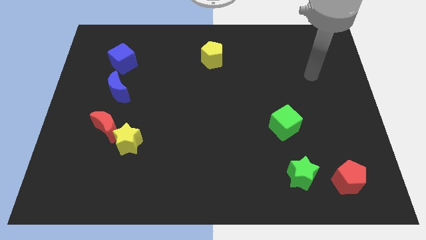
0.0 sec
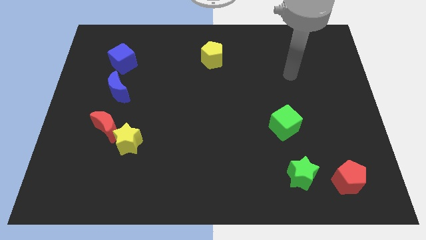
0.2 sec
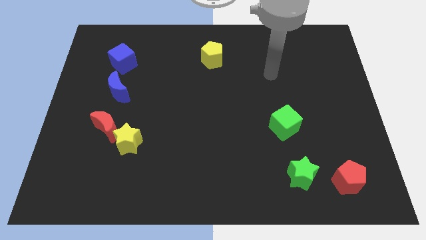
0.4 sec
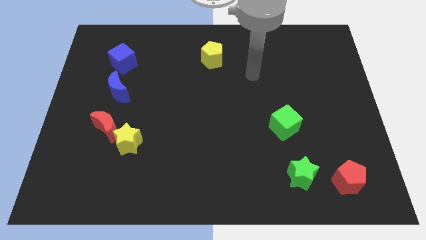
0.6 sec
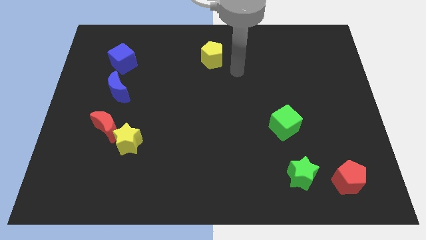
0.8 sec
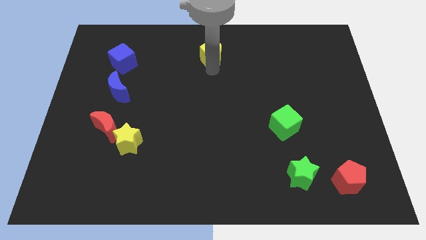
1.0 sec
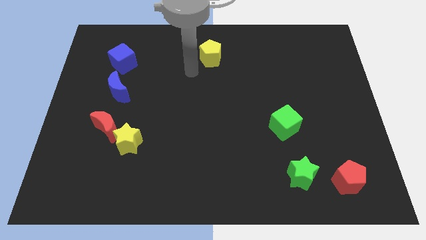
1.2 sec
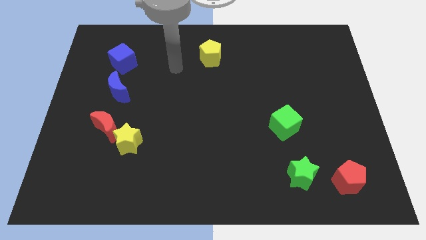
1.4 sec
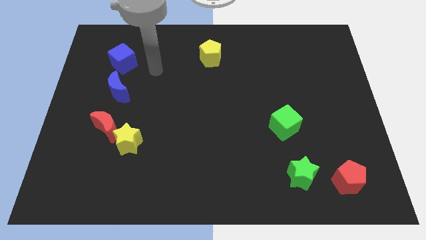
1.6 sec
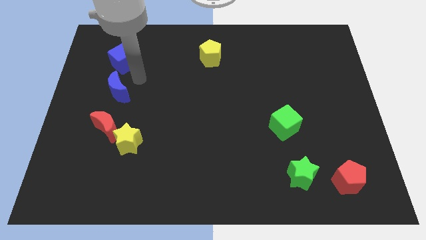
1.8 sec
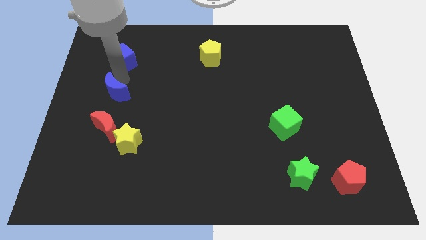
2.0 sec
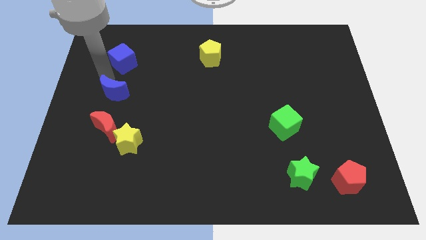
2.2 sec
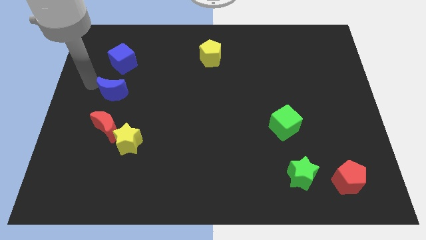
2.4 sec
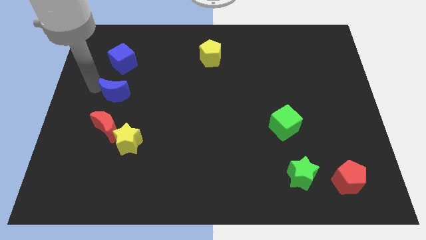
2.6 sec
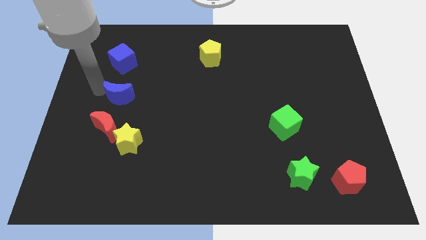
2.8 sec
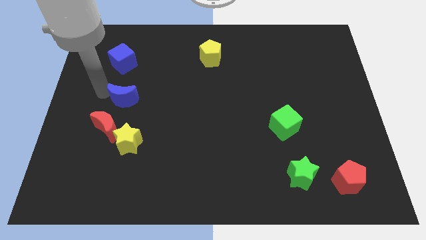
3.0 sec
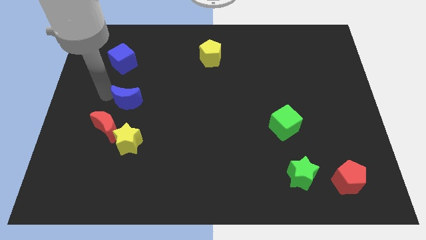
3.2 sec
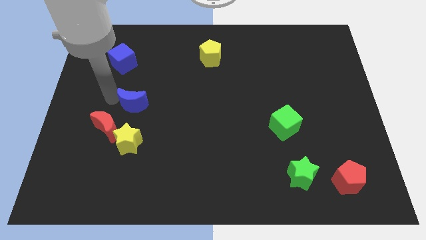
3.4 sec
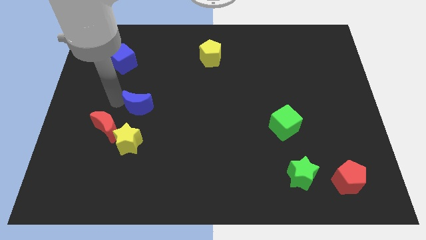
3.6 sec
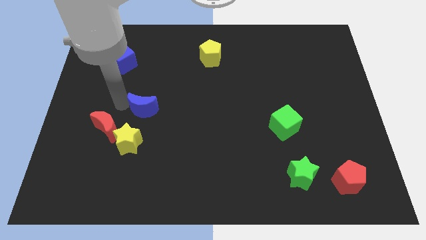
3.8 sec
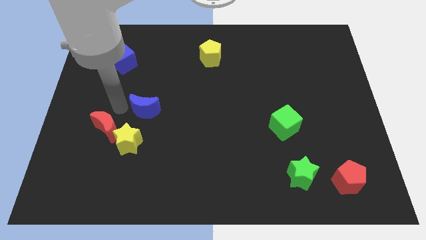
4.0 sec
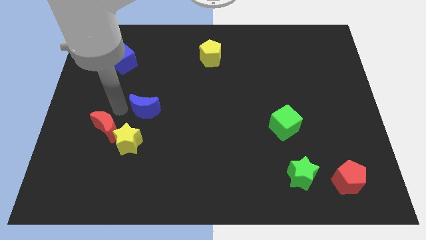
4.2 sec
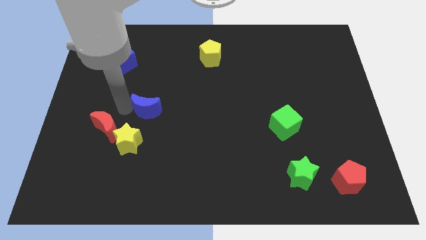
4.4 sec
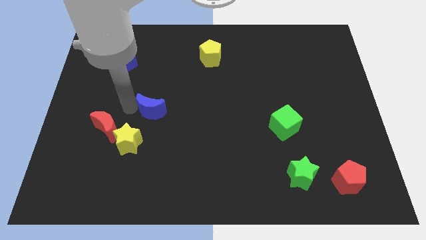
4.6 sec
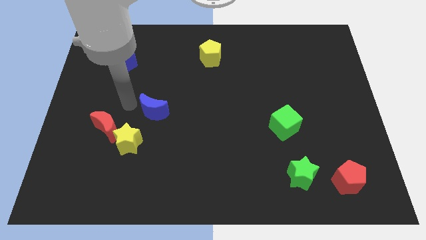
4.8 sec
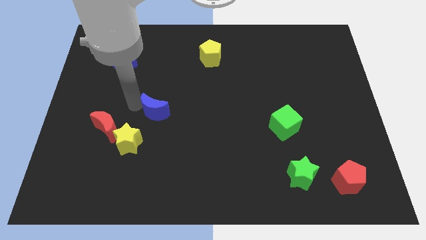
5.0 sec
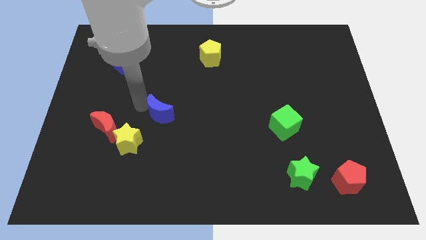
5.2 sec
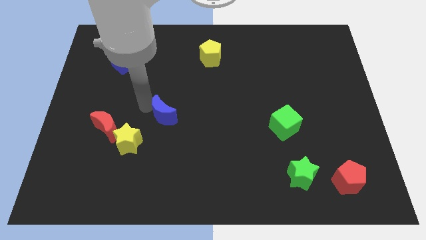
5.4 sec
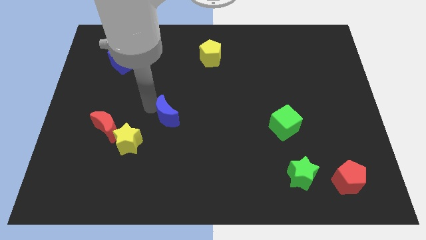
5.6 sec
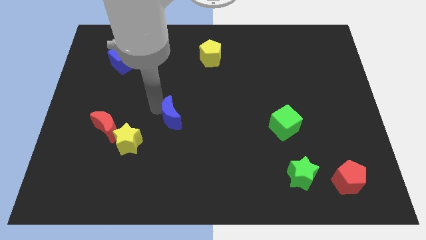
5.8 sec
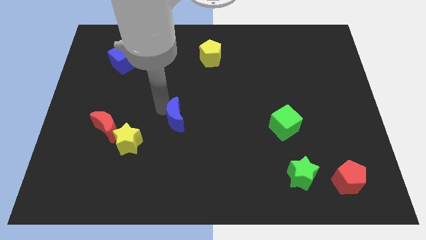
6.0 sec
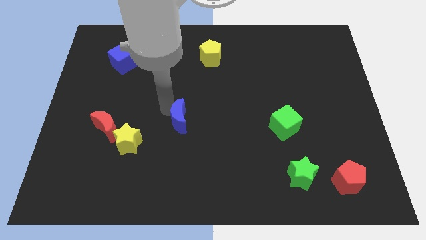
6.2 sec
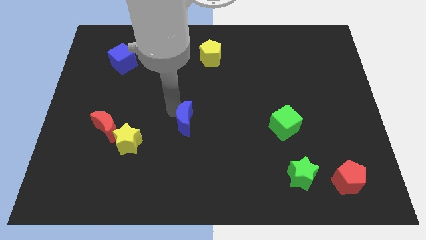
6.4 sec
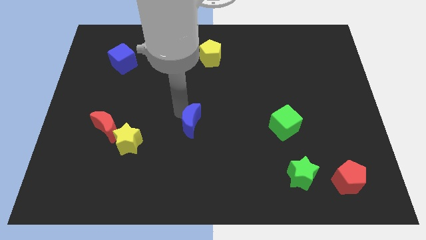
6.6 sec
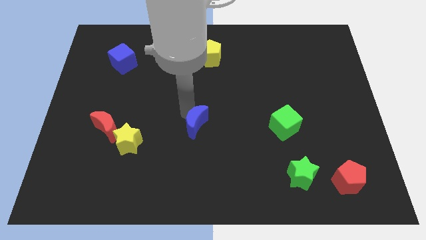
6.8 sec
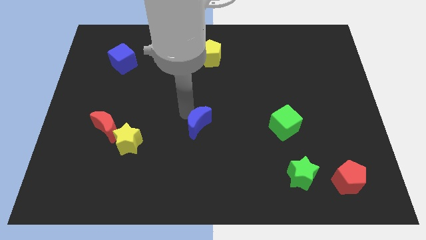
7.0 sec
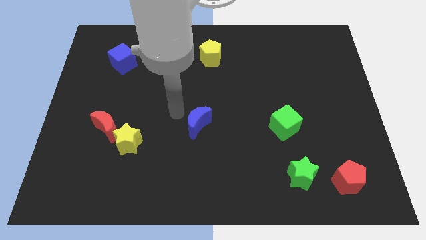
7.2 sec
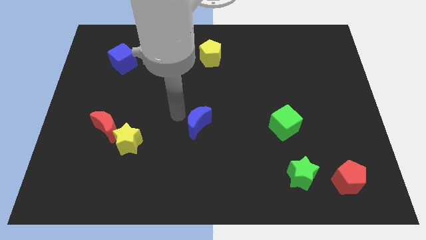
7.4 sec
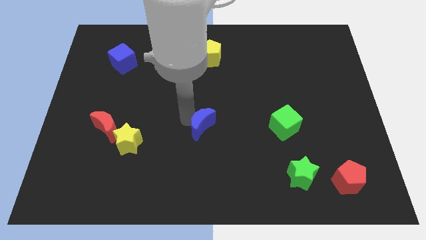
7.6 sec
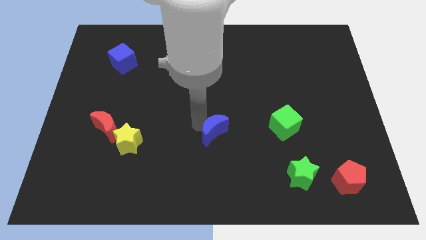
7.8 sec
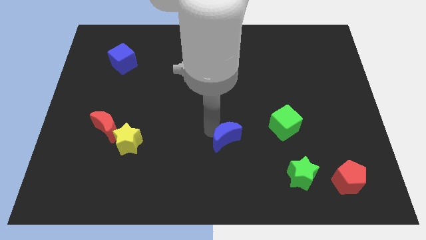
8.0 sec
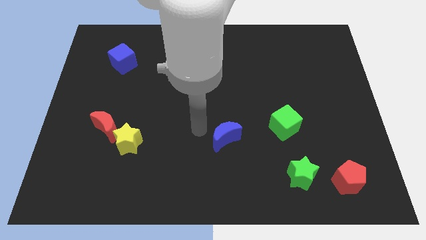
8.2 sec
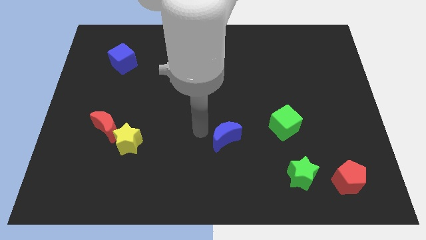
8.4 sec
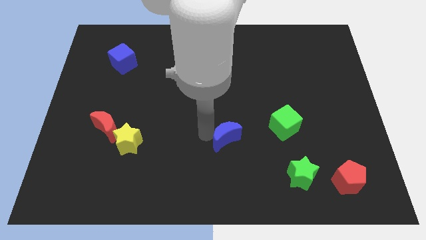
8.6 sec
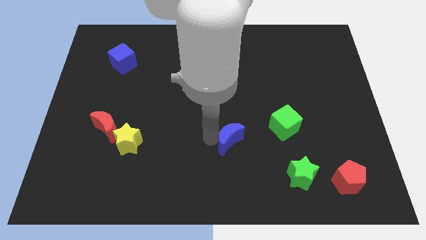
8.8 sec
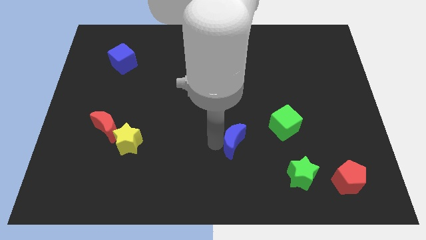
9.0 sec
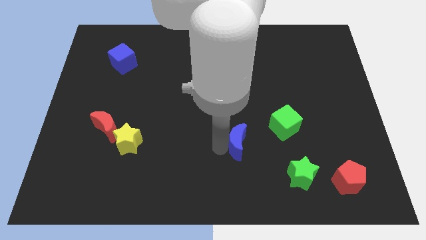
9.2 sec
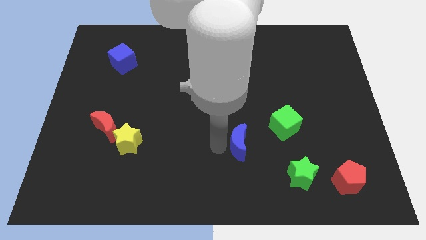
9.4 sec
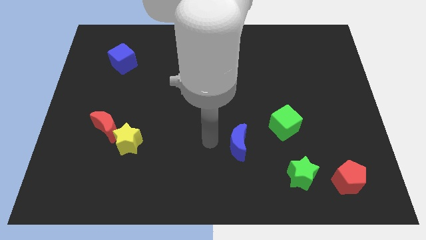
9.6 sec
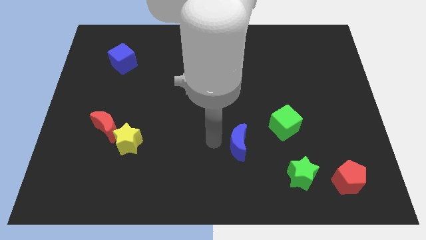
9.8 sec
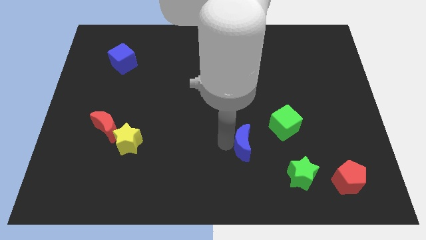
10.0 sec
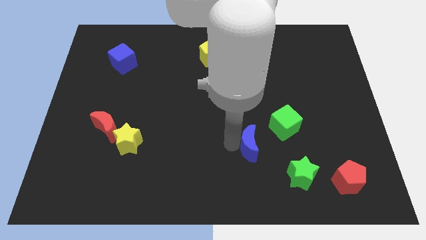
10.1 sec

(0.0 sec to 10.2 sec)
push the blue moon to the top left of the green star

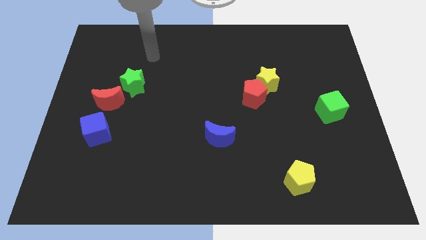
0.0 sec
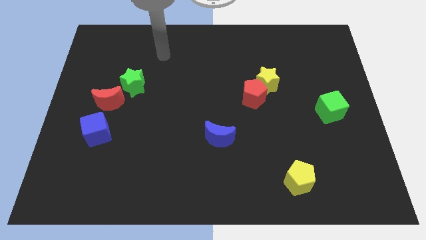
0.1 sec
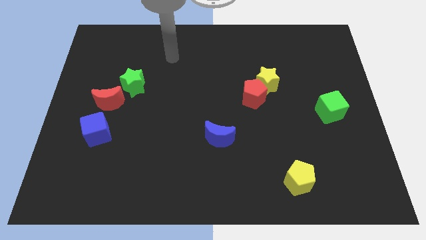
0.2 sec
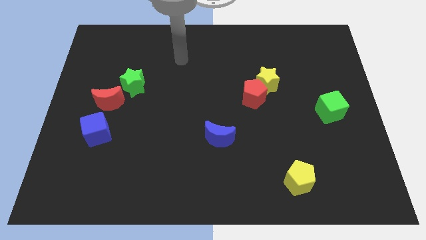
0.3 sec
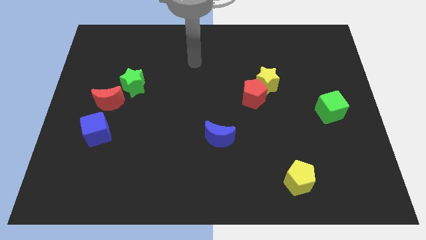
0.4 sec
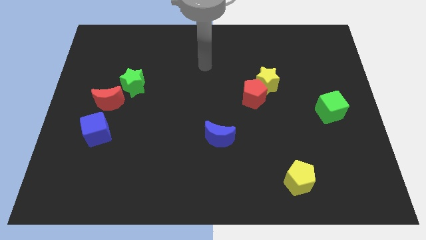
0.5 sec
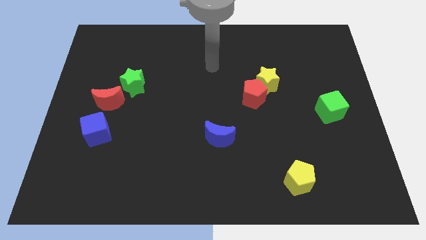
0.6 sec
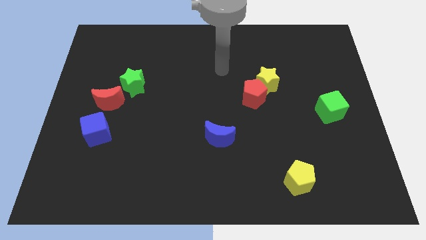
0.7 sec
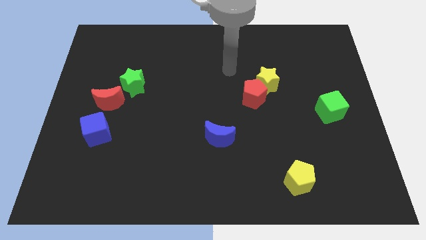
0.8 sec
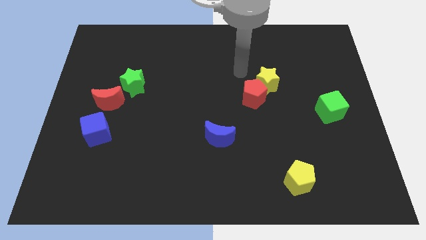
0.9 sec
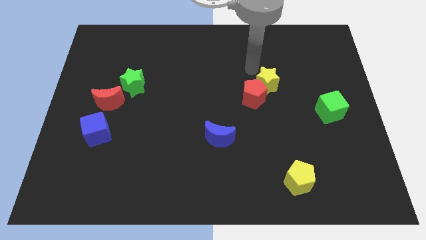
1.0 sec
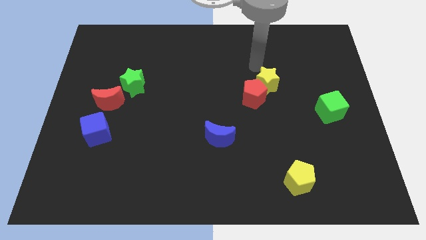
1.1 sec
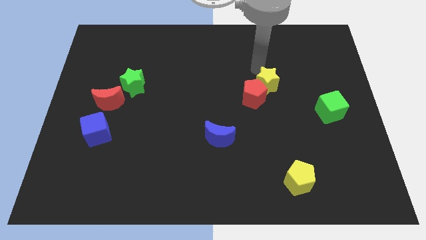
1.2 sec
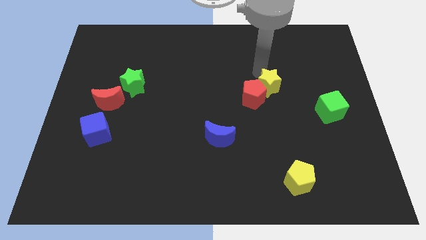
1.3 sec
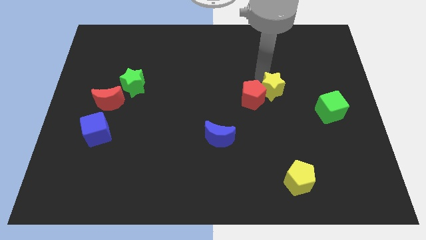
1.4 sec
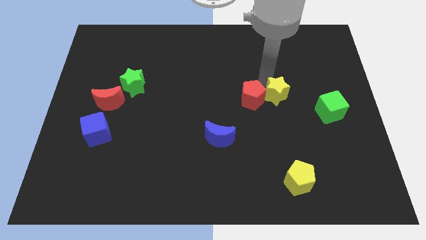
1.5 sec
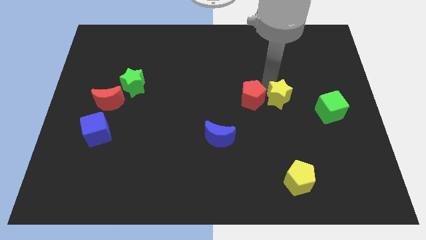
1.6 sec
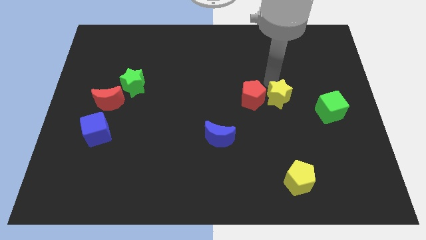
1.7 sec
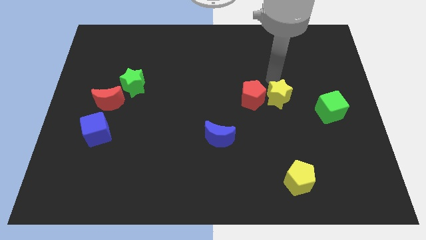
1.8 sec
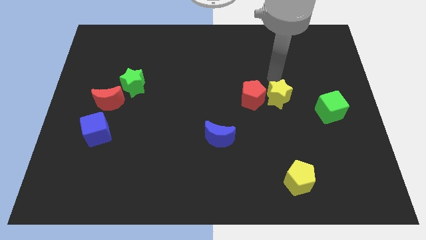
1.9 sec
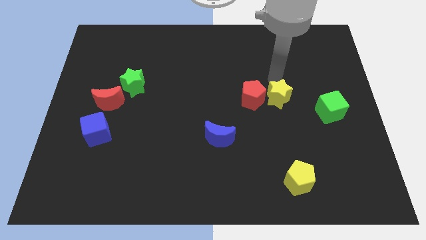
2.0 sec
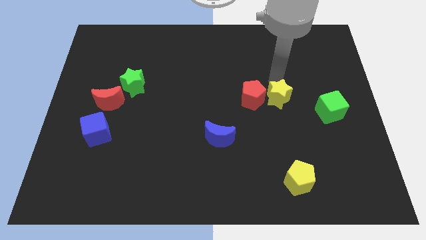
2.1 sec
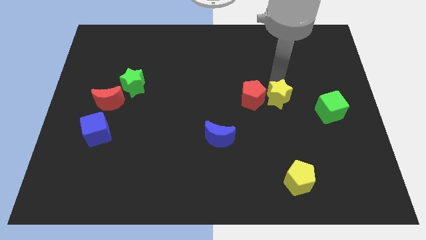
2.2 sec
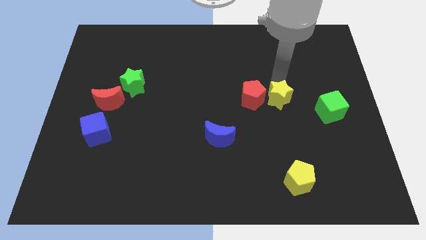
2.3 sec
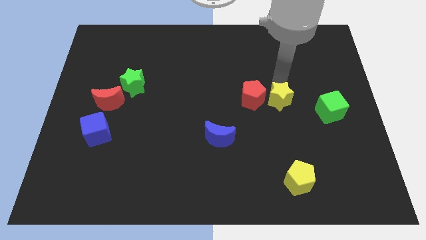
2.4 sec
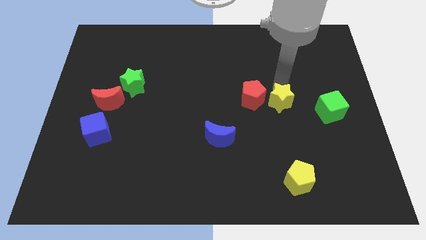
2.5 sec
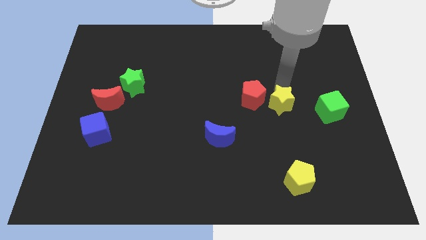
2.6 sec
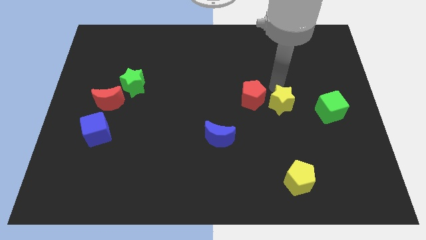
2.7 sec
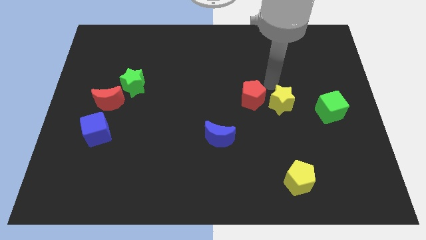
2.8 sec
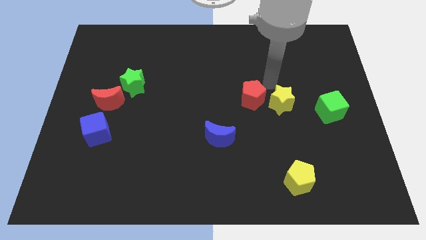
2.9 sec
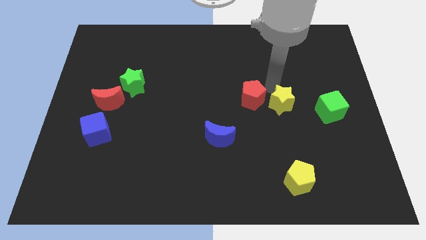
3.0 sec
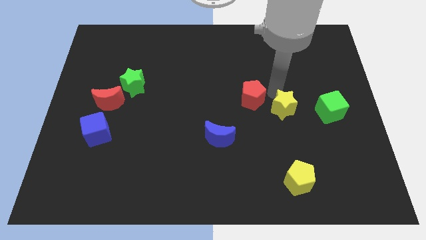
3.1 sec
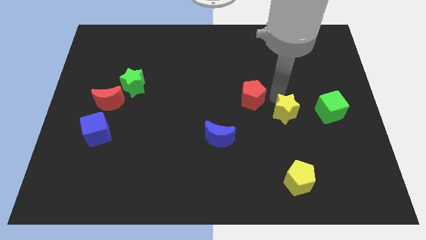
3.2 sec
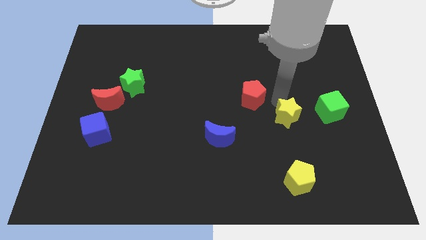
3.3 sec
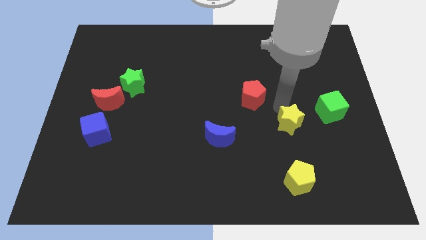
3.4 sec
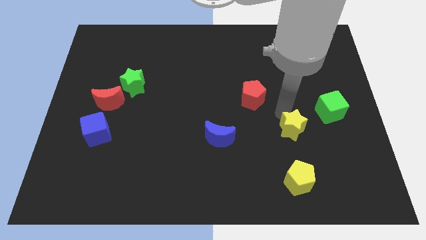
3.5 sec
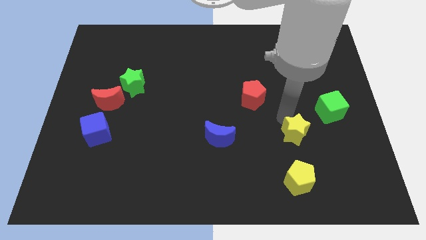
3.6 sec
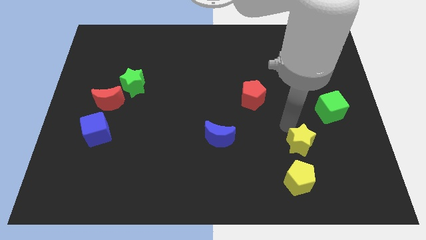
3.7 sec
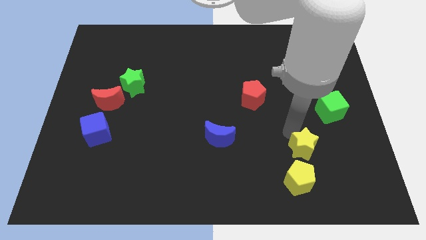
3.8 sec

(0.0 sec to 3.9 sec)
slide the yellow star to the top right side of the yellow pentagon
